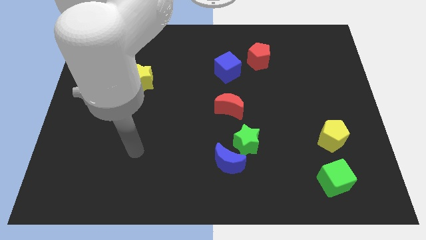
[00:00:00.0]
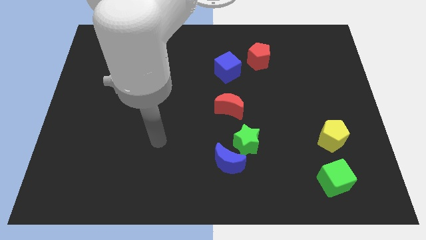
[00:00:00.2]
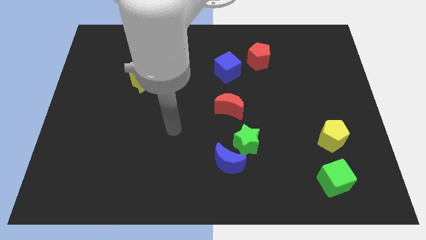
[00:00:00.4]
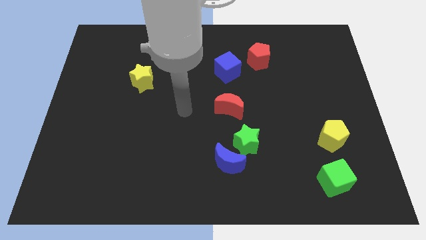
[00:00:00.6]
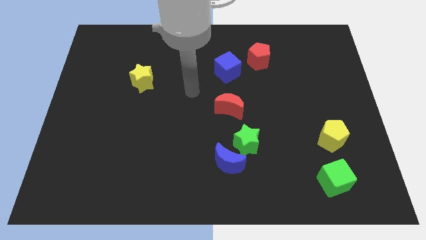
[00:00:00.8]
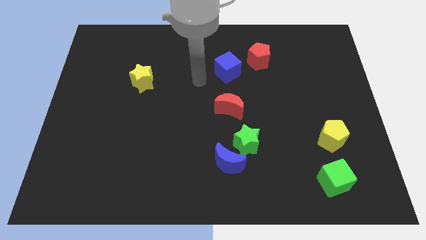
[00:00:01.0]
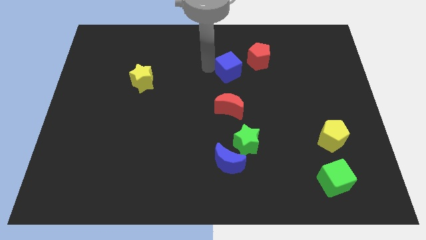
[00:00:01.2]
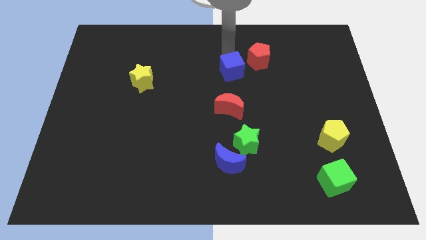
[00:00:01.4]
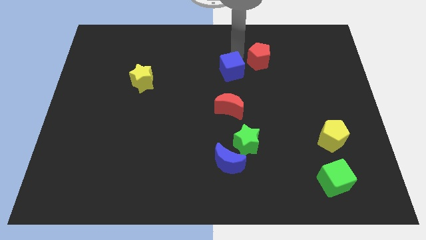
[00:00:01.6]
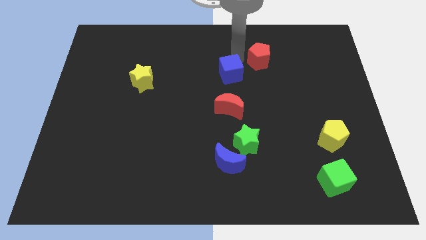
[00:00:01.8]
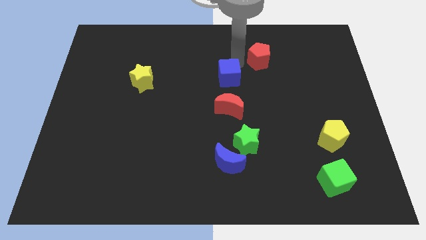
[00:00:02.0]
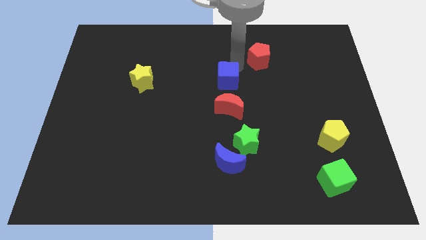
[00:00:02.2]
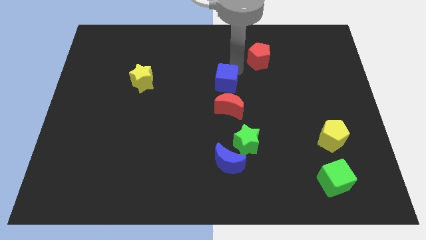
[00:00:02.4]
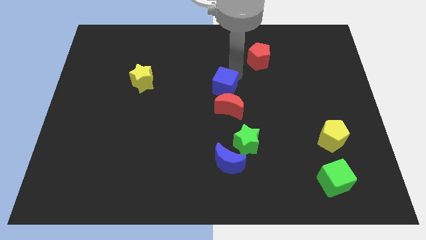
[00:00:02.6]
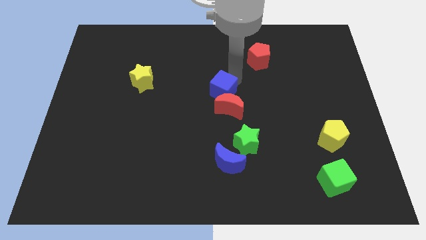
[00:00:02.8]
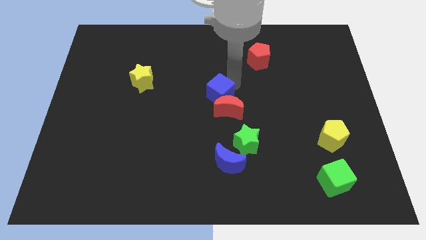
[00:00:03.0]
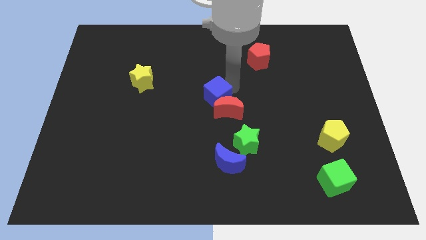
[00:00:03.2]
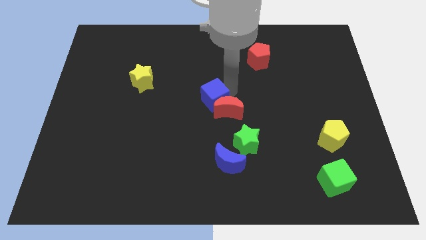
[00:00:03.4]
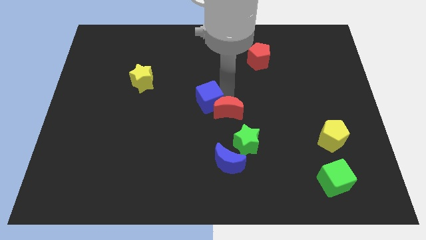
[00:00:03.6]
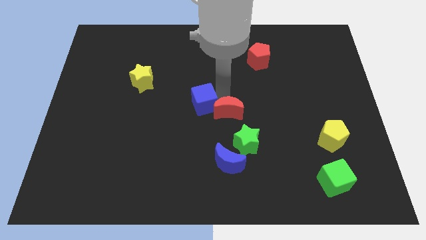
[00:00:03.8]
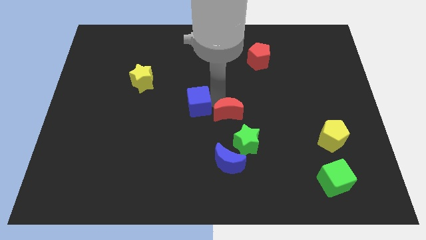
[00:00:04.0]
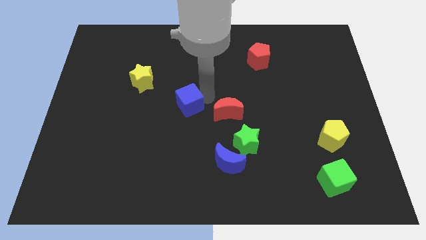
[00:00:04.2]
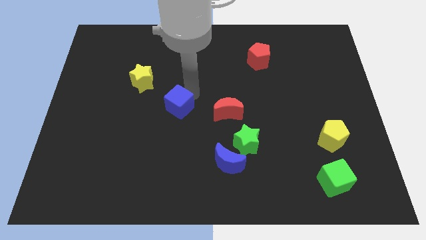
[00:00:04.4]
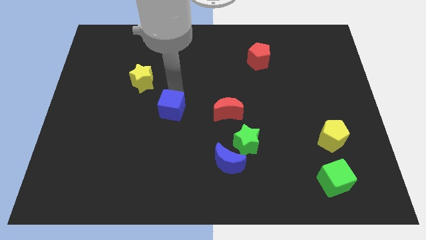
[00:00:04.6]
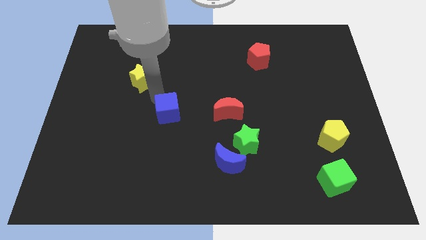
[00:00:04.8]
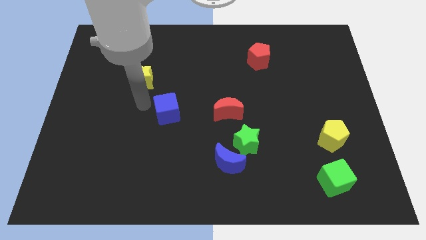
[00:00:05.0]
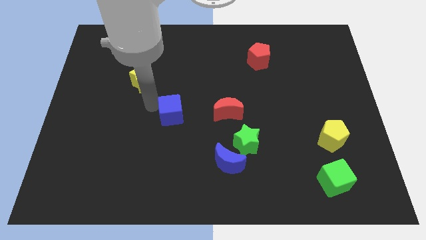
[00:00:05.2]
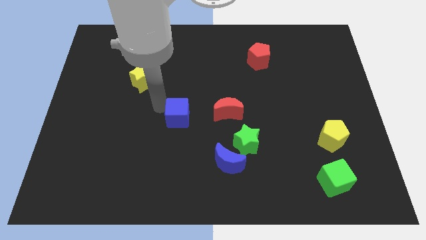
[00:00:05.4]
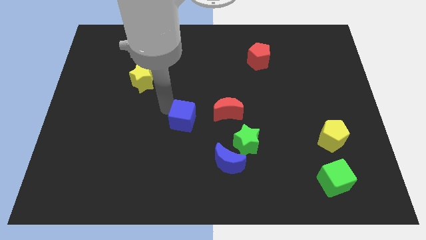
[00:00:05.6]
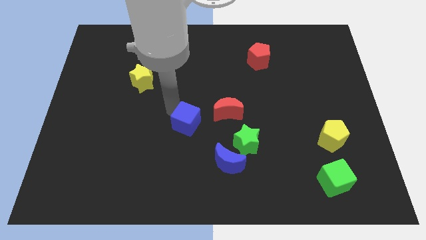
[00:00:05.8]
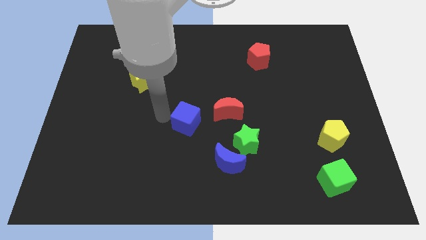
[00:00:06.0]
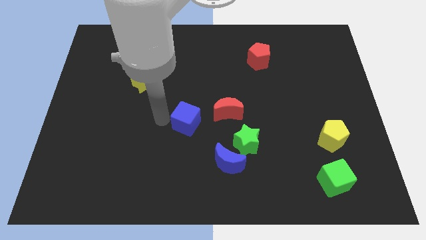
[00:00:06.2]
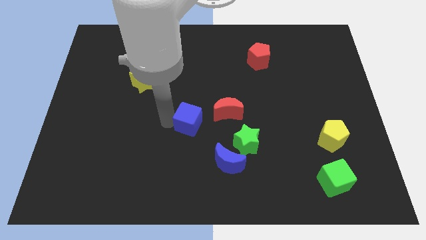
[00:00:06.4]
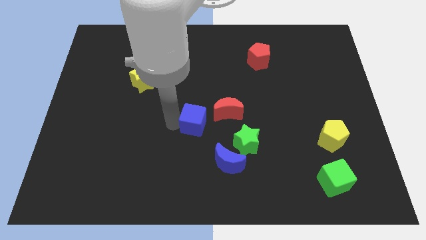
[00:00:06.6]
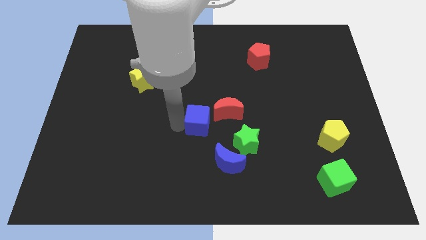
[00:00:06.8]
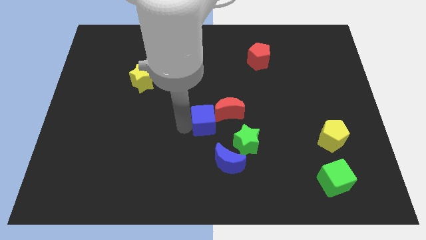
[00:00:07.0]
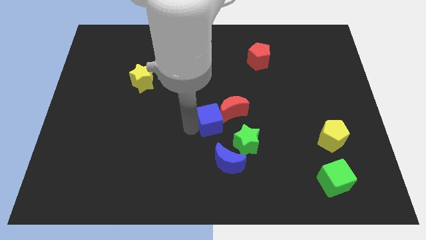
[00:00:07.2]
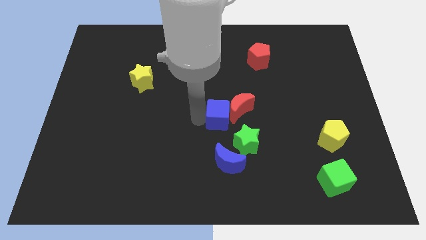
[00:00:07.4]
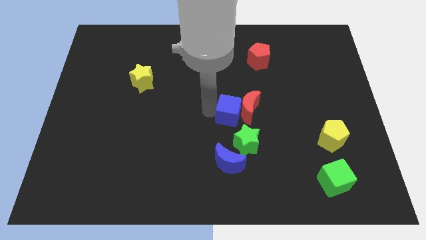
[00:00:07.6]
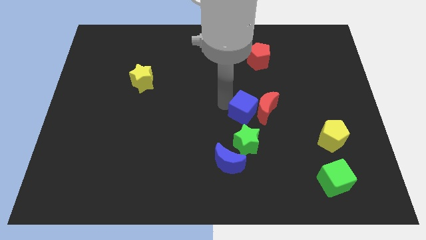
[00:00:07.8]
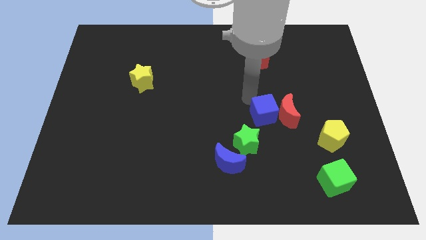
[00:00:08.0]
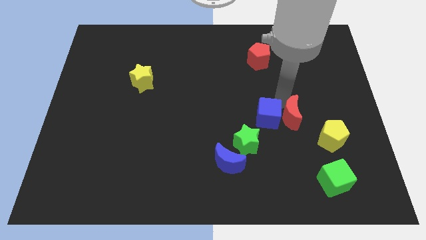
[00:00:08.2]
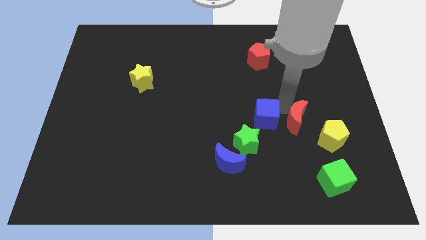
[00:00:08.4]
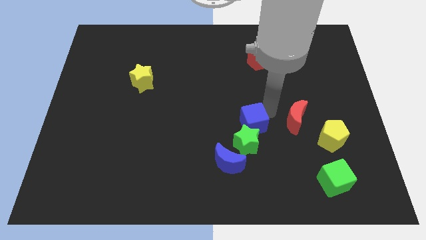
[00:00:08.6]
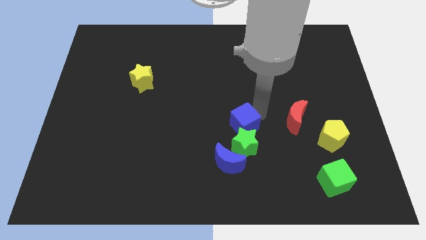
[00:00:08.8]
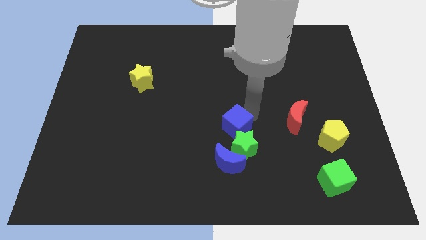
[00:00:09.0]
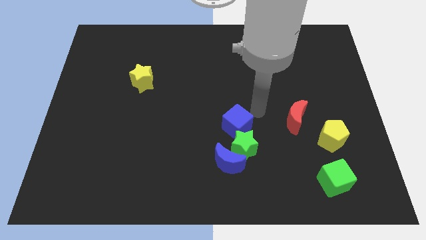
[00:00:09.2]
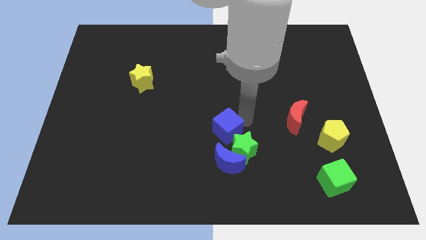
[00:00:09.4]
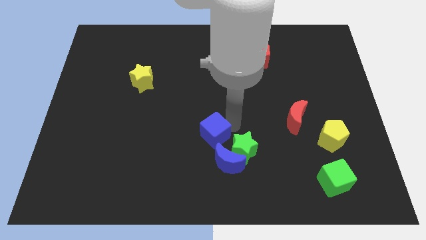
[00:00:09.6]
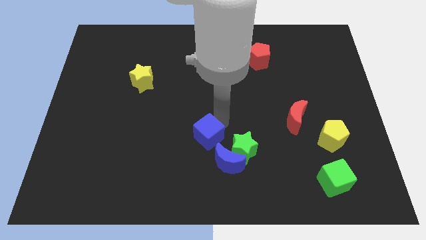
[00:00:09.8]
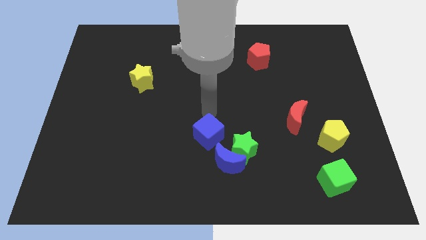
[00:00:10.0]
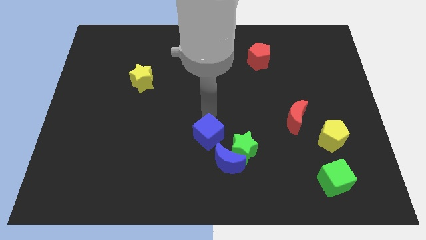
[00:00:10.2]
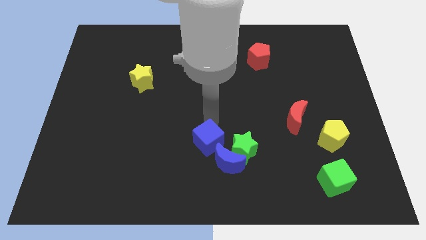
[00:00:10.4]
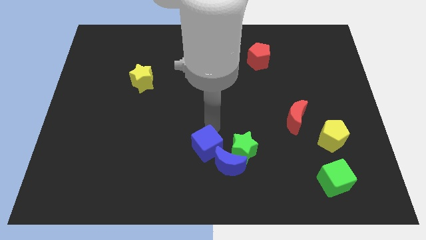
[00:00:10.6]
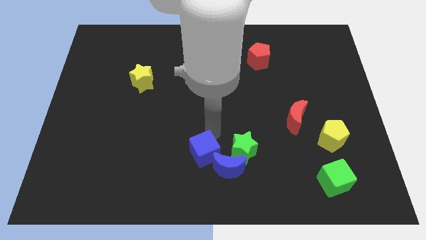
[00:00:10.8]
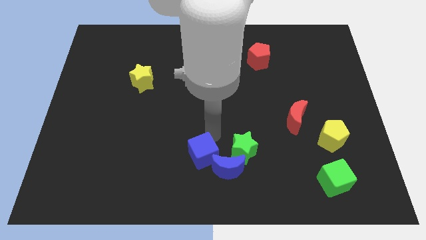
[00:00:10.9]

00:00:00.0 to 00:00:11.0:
move the blue cube to the bottom

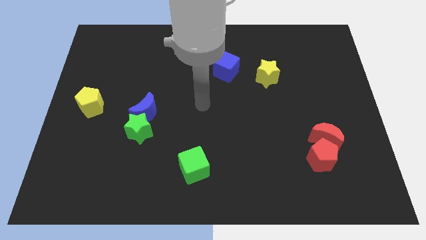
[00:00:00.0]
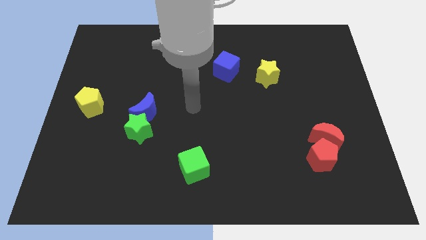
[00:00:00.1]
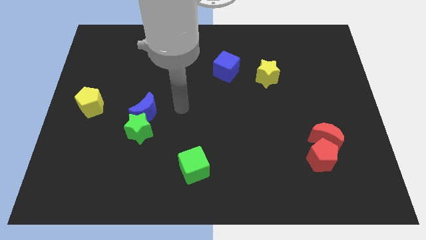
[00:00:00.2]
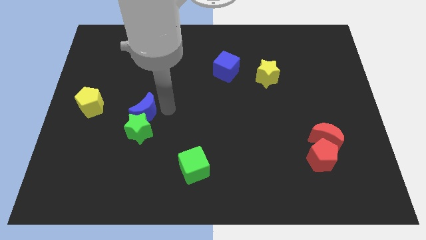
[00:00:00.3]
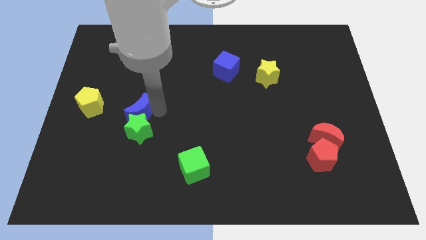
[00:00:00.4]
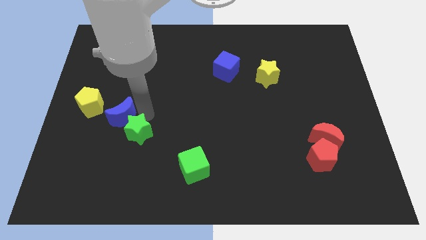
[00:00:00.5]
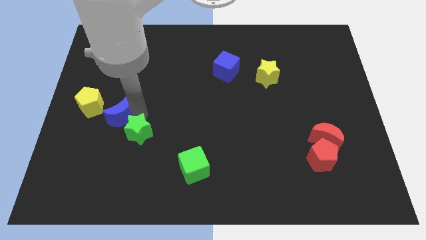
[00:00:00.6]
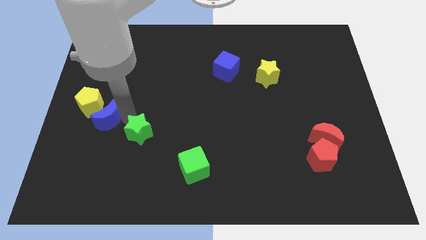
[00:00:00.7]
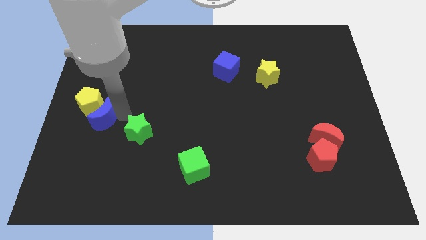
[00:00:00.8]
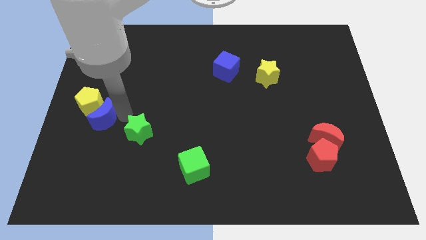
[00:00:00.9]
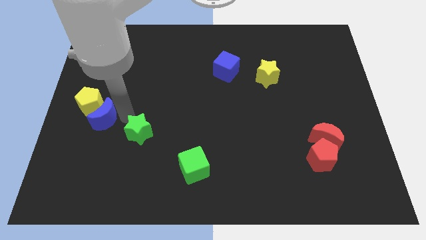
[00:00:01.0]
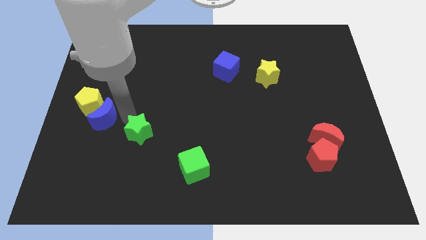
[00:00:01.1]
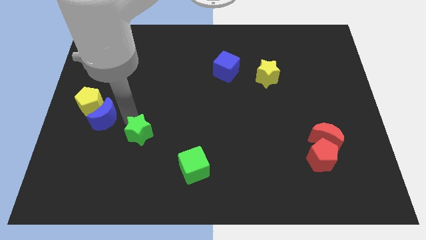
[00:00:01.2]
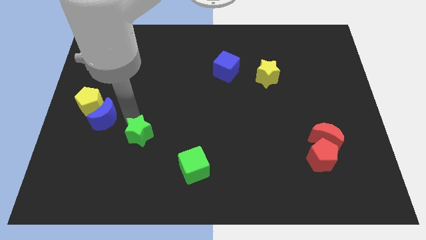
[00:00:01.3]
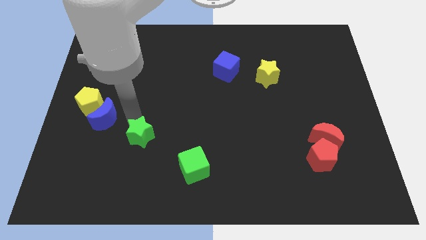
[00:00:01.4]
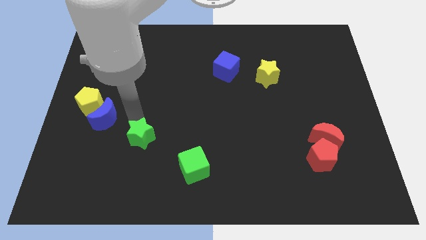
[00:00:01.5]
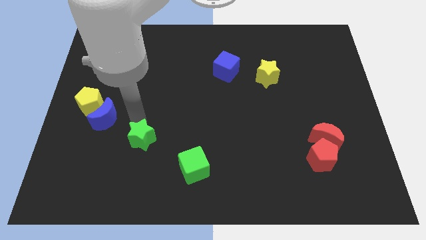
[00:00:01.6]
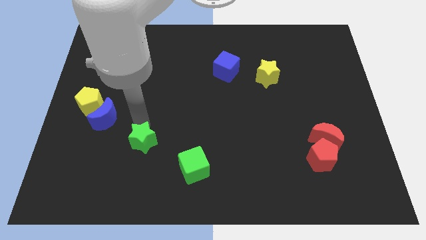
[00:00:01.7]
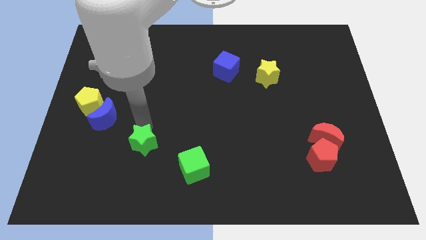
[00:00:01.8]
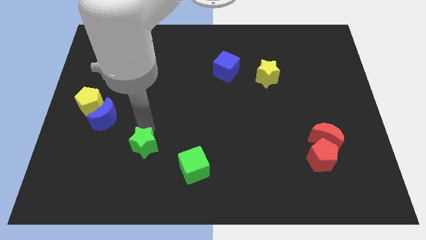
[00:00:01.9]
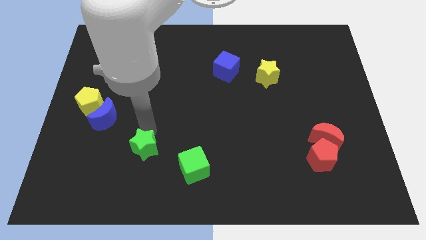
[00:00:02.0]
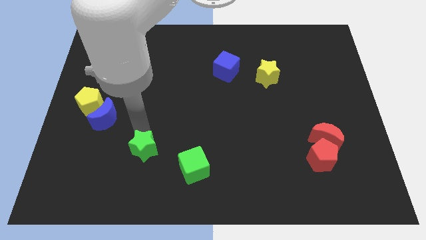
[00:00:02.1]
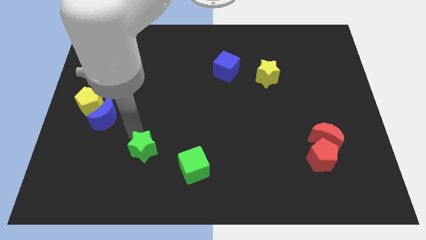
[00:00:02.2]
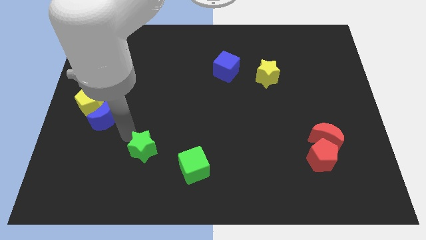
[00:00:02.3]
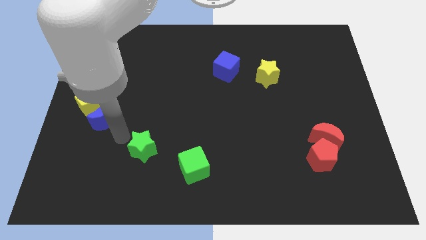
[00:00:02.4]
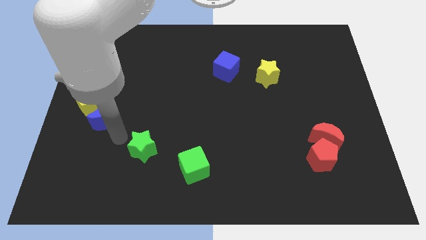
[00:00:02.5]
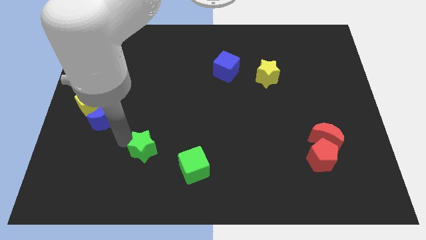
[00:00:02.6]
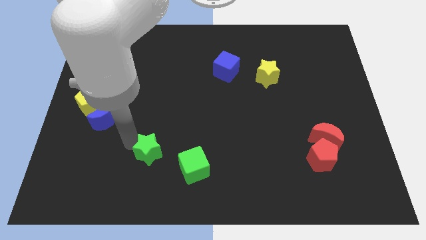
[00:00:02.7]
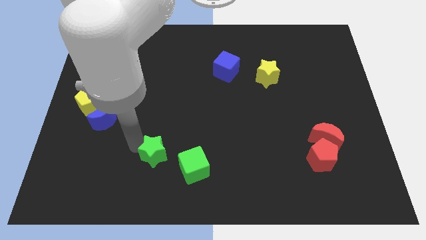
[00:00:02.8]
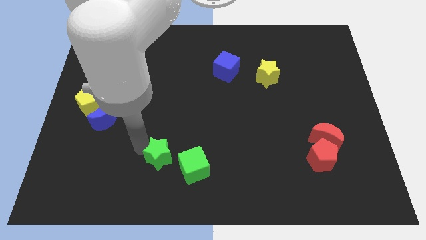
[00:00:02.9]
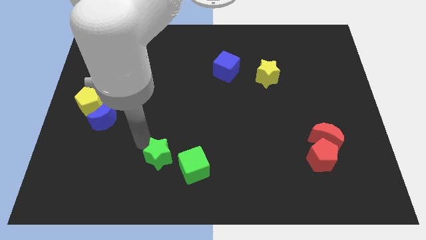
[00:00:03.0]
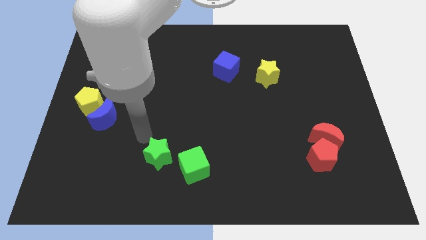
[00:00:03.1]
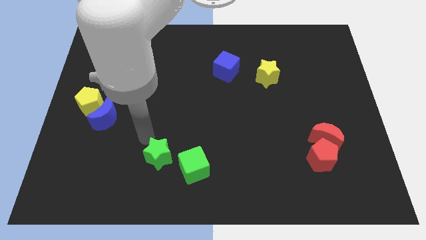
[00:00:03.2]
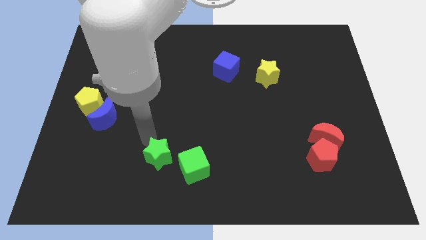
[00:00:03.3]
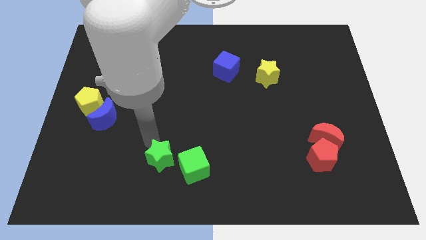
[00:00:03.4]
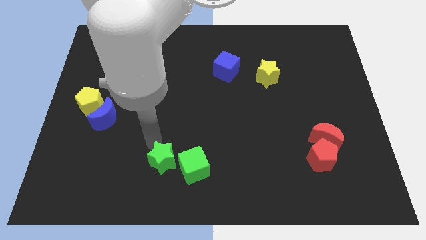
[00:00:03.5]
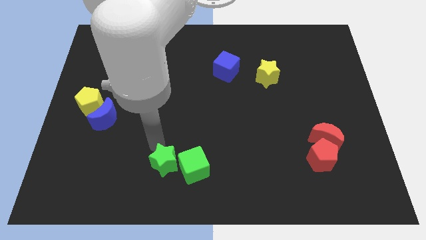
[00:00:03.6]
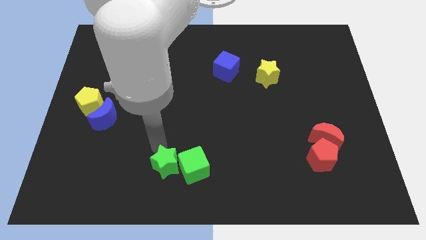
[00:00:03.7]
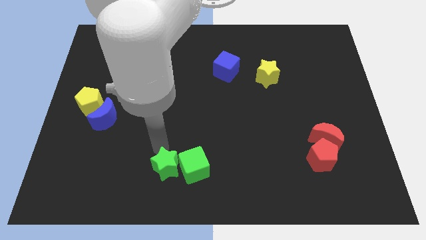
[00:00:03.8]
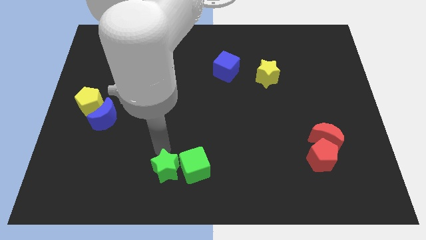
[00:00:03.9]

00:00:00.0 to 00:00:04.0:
put the green star to the bottom
